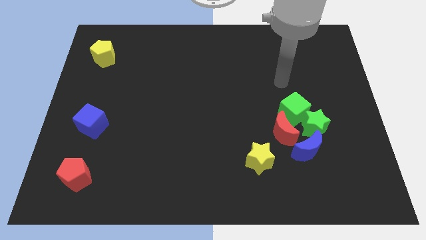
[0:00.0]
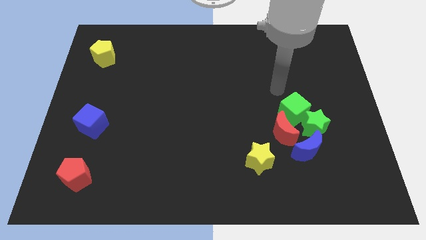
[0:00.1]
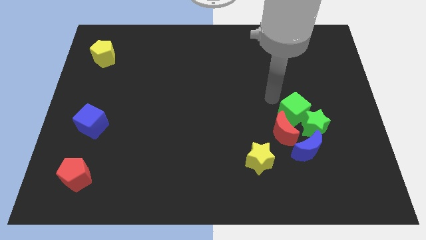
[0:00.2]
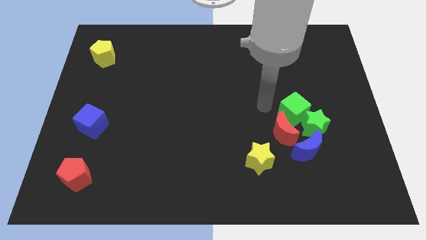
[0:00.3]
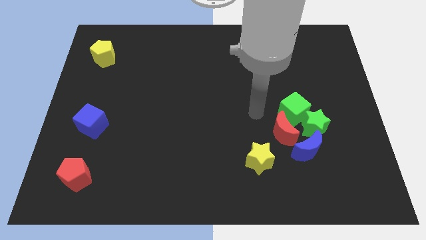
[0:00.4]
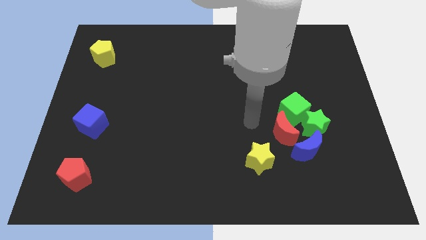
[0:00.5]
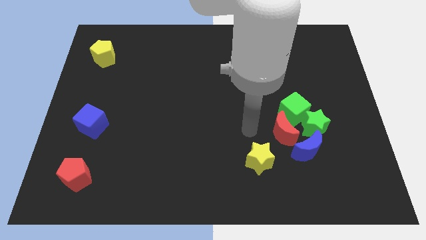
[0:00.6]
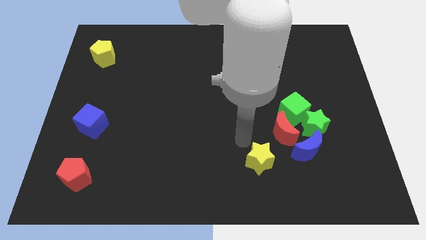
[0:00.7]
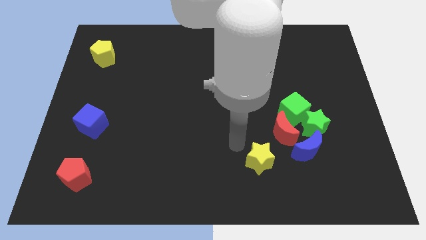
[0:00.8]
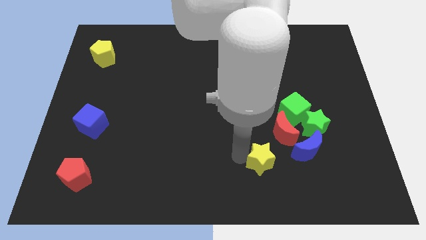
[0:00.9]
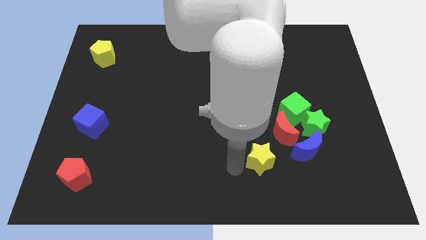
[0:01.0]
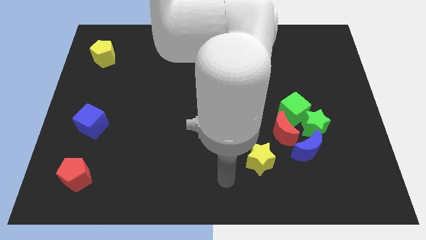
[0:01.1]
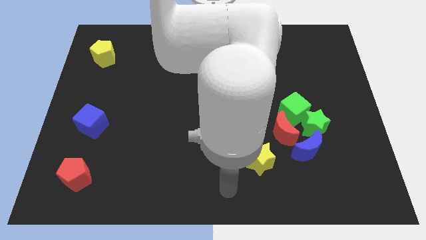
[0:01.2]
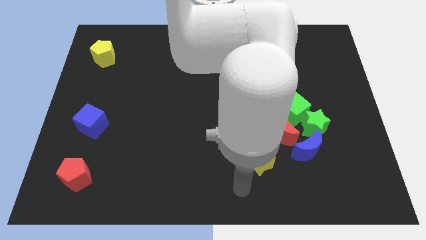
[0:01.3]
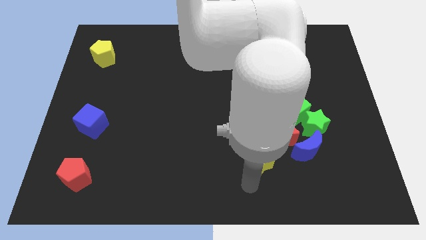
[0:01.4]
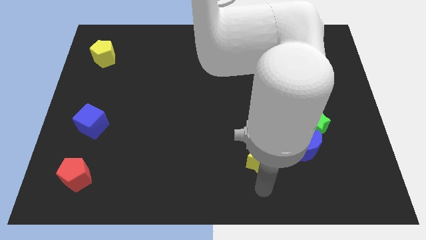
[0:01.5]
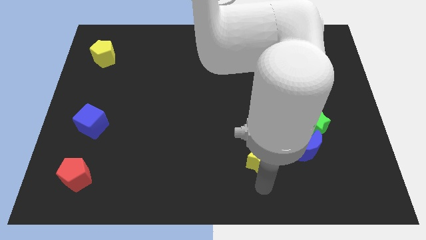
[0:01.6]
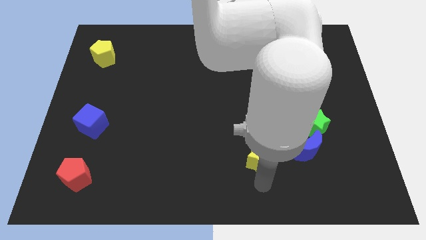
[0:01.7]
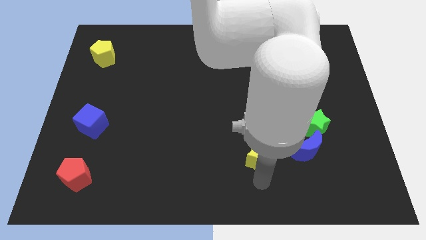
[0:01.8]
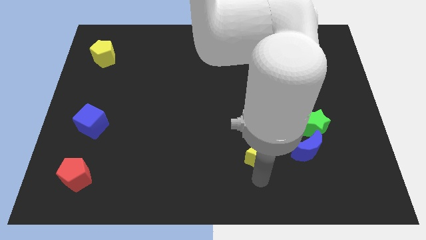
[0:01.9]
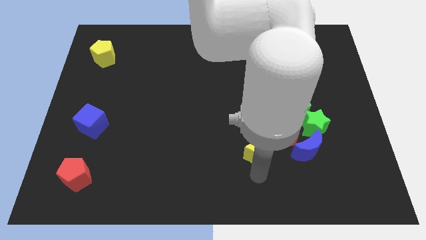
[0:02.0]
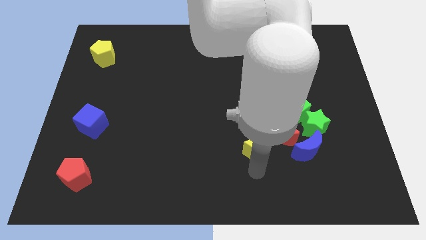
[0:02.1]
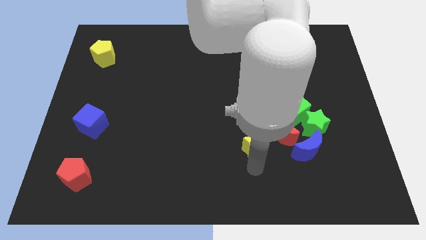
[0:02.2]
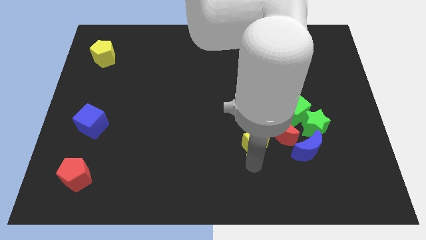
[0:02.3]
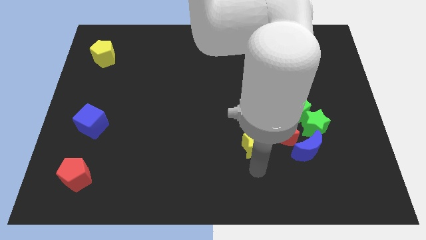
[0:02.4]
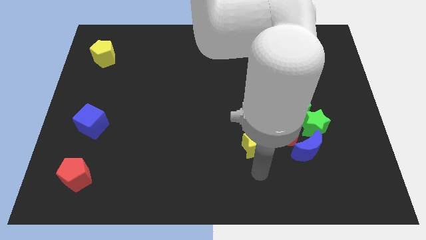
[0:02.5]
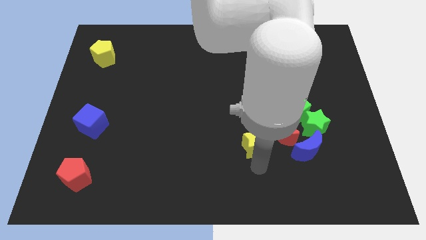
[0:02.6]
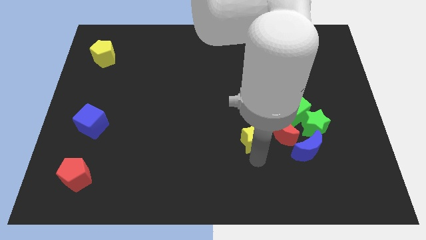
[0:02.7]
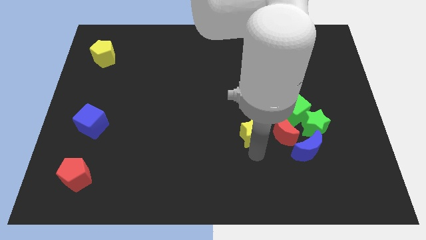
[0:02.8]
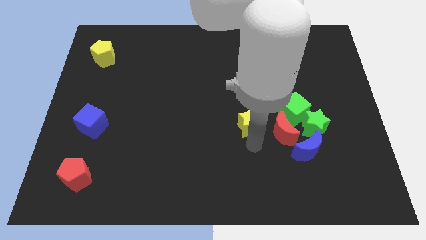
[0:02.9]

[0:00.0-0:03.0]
slightly move the yellow star upwards

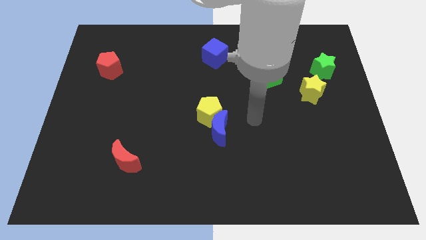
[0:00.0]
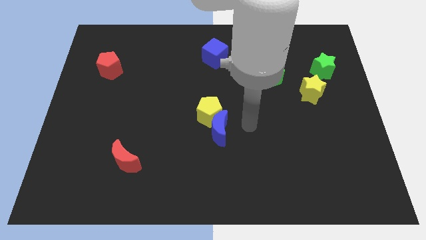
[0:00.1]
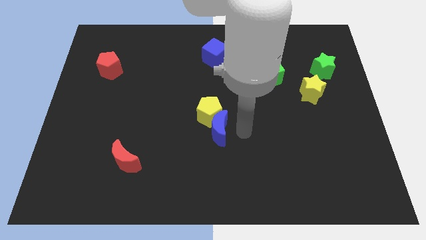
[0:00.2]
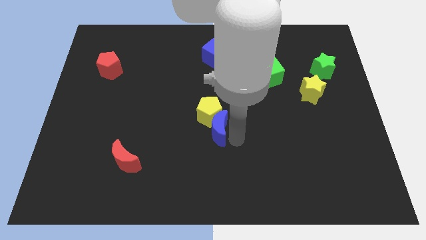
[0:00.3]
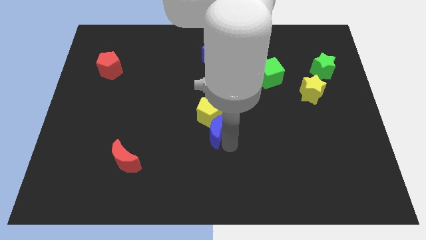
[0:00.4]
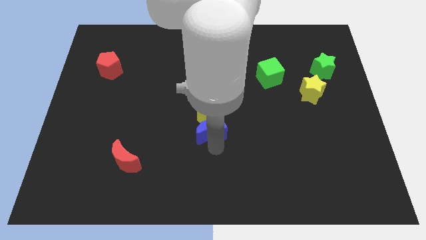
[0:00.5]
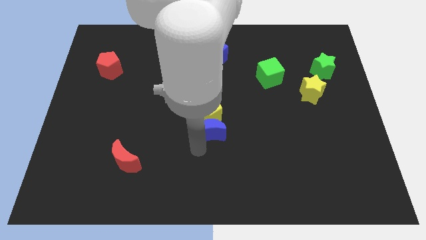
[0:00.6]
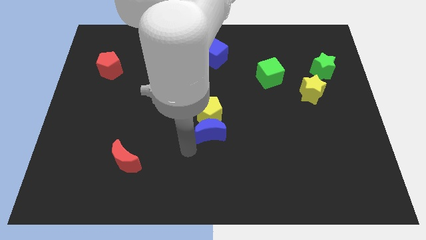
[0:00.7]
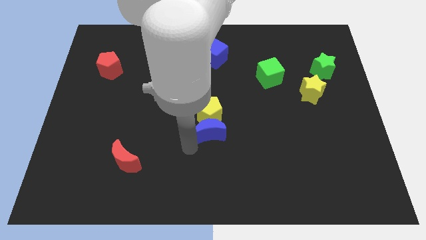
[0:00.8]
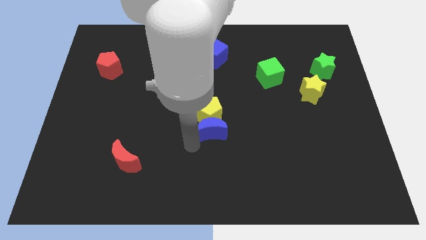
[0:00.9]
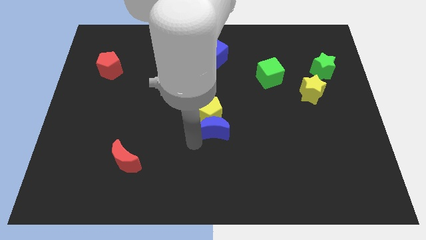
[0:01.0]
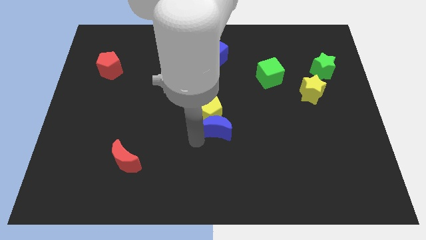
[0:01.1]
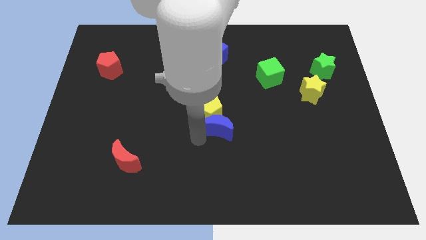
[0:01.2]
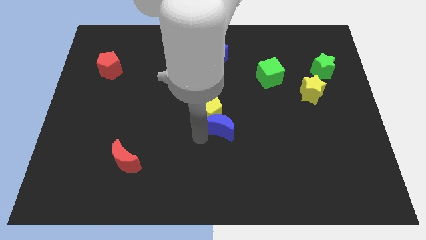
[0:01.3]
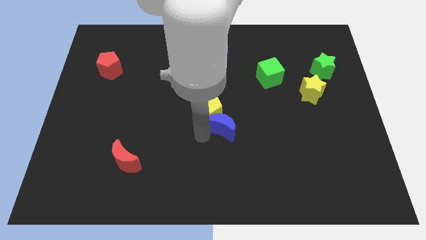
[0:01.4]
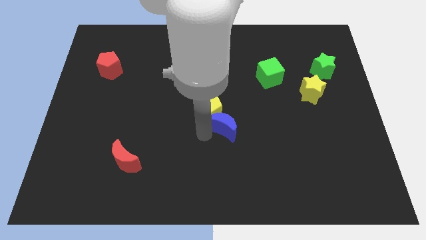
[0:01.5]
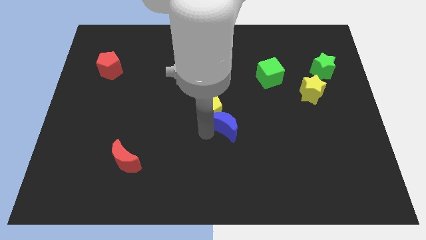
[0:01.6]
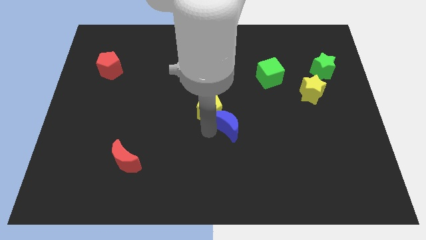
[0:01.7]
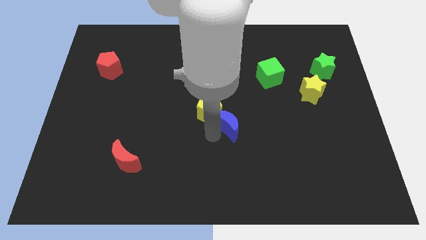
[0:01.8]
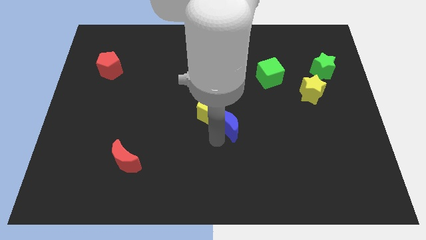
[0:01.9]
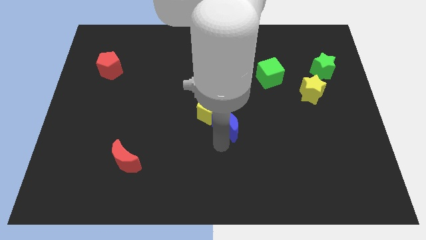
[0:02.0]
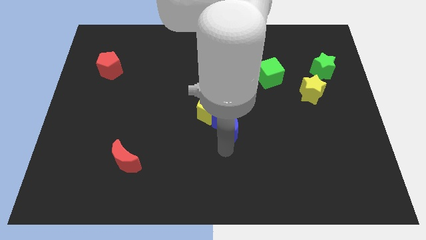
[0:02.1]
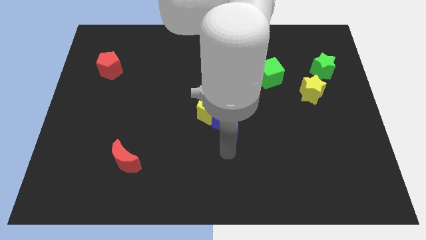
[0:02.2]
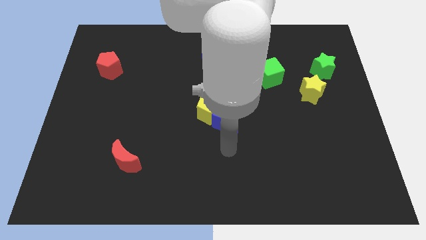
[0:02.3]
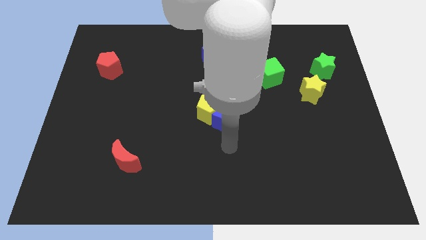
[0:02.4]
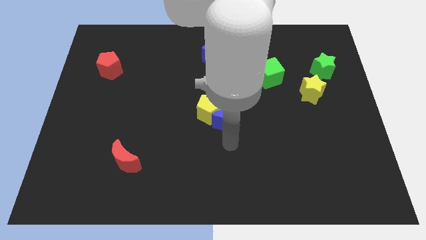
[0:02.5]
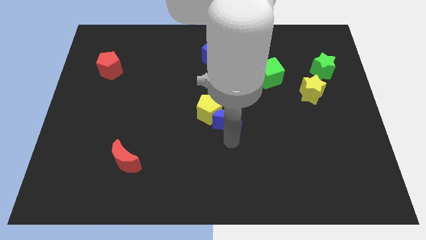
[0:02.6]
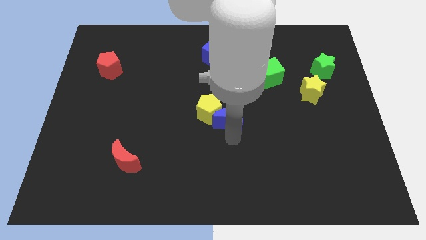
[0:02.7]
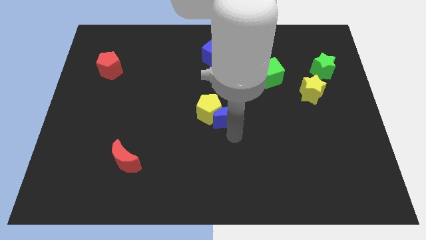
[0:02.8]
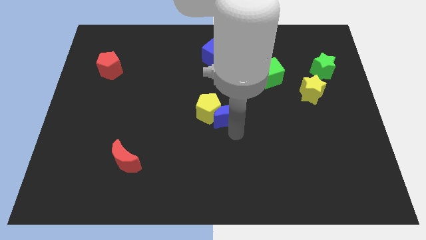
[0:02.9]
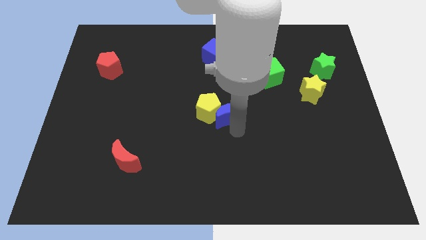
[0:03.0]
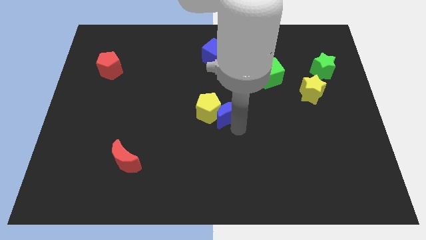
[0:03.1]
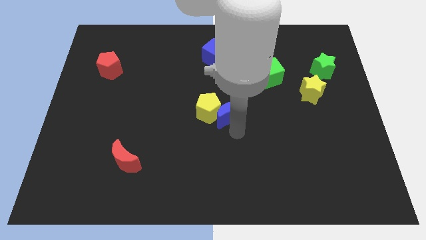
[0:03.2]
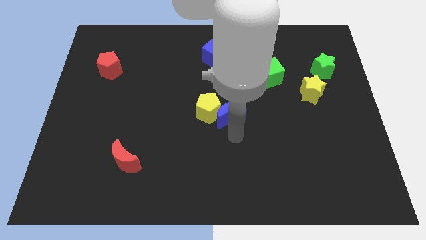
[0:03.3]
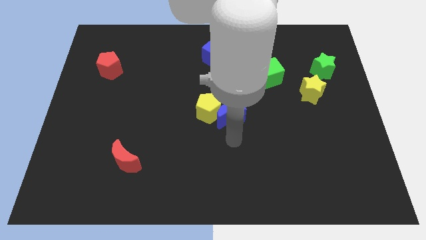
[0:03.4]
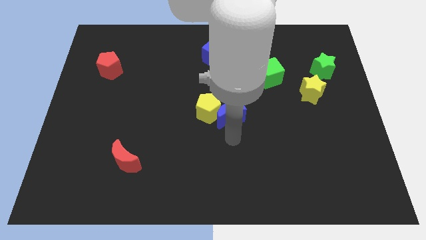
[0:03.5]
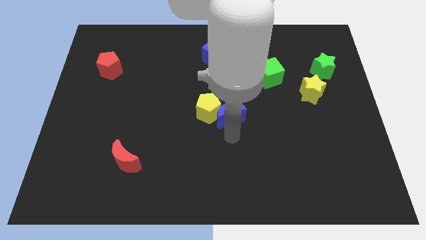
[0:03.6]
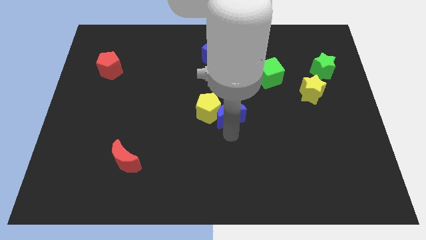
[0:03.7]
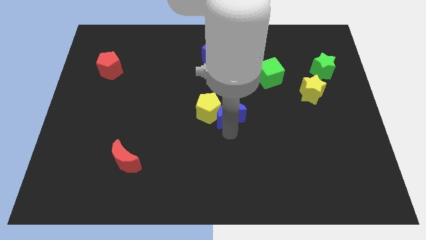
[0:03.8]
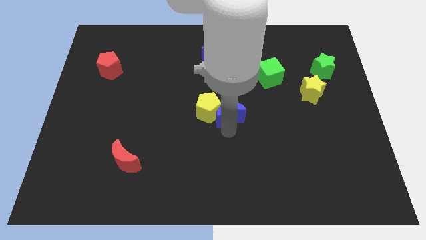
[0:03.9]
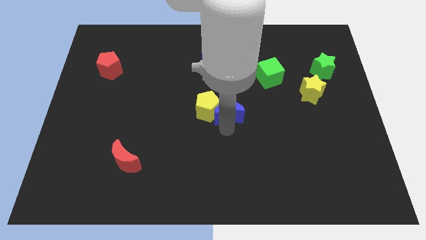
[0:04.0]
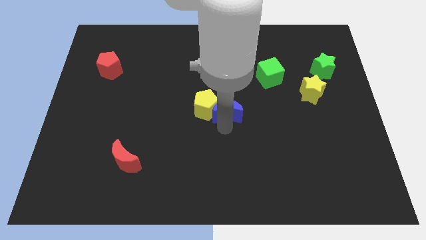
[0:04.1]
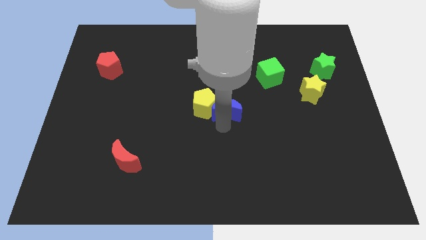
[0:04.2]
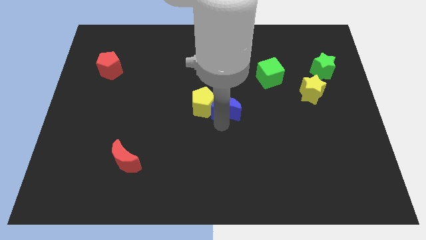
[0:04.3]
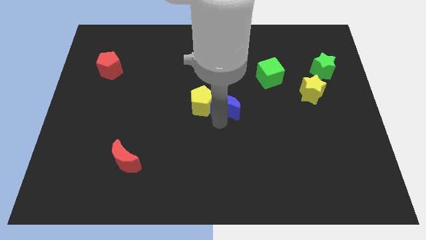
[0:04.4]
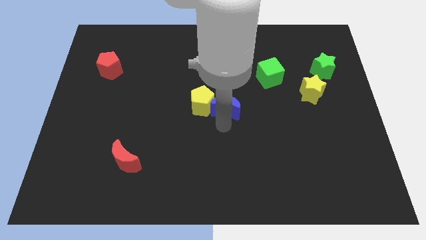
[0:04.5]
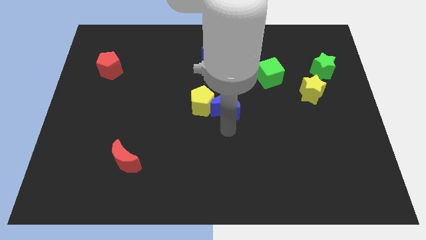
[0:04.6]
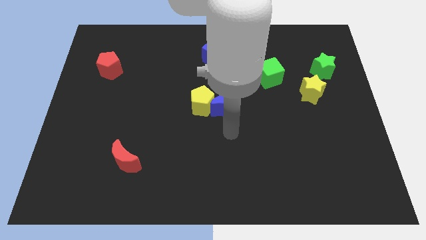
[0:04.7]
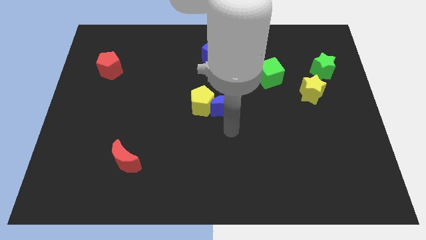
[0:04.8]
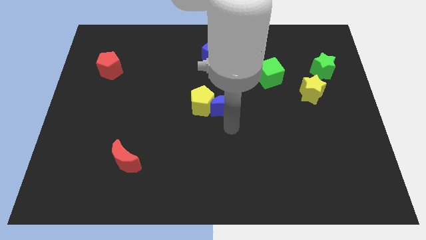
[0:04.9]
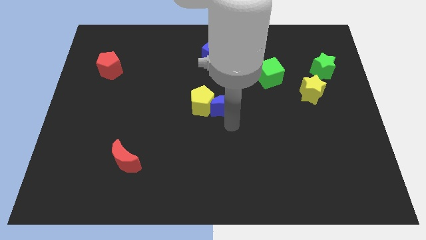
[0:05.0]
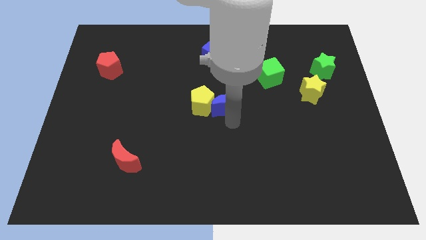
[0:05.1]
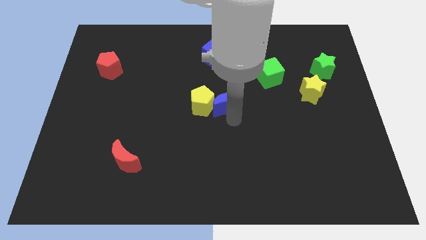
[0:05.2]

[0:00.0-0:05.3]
slide the blue moon somewhat up
